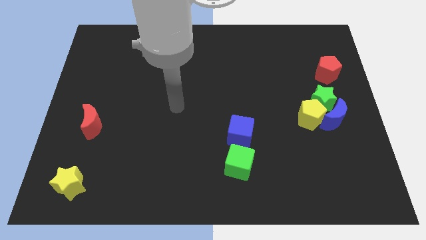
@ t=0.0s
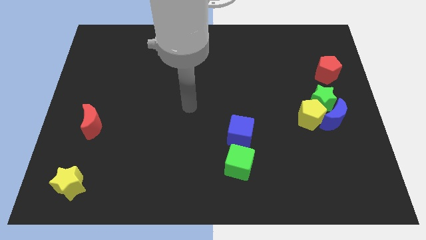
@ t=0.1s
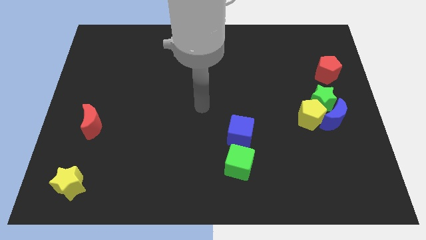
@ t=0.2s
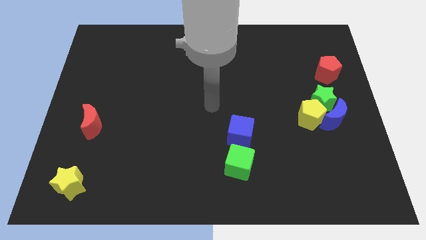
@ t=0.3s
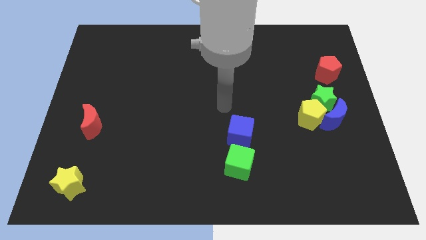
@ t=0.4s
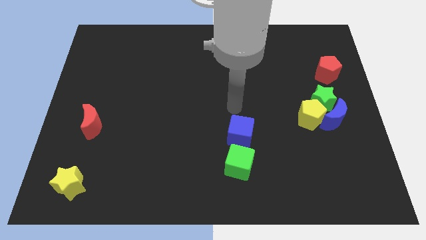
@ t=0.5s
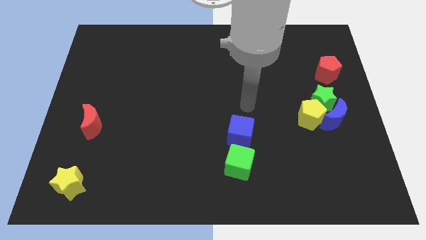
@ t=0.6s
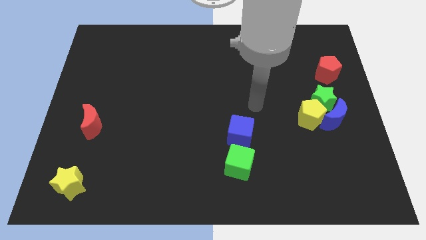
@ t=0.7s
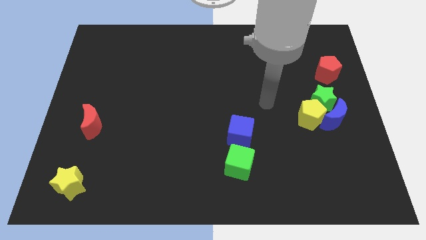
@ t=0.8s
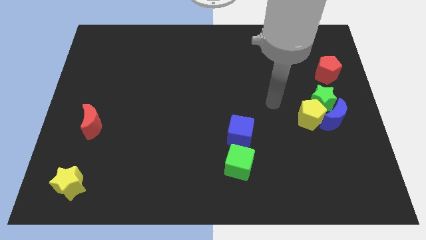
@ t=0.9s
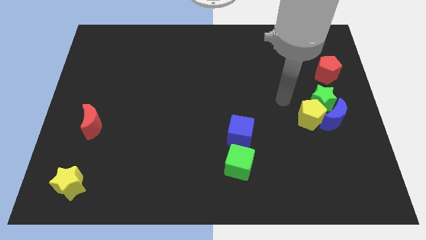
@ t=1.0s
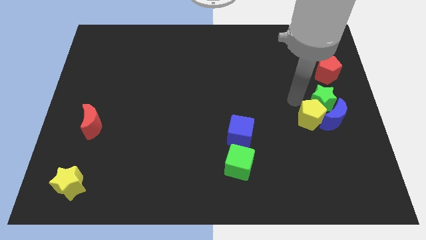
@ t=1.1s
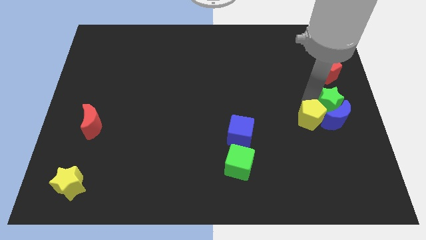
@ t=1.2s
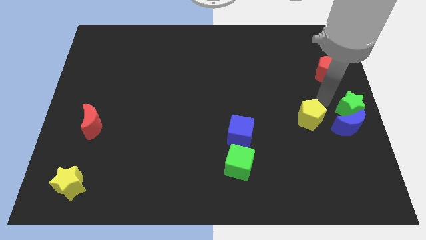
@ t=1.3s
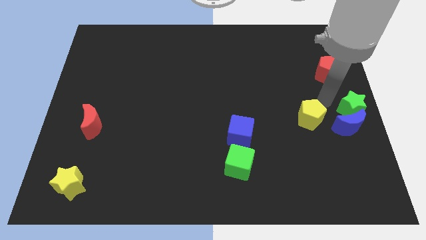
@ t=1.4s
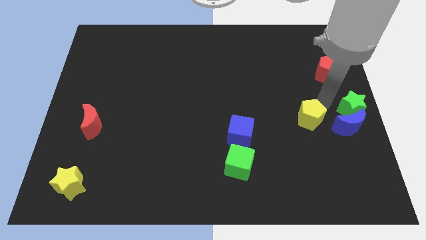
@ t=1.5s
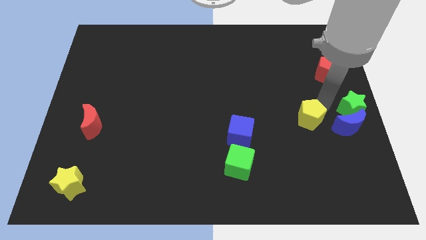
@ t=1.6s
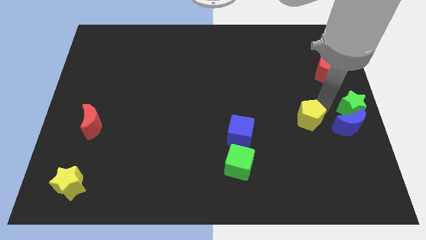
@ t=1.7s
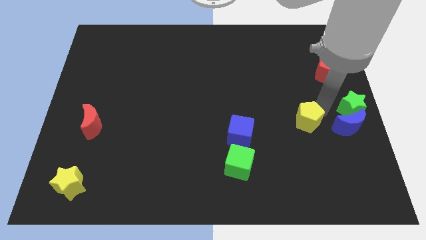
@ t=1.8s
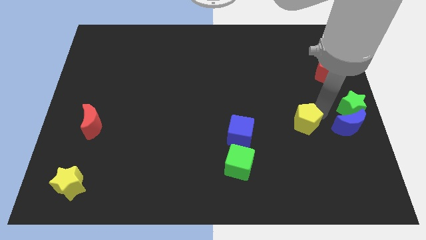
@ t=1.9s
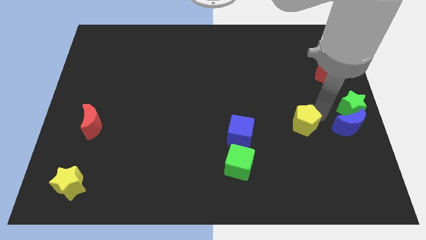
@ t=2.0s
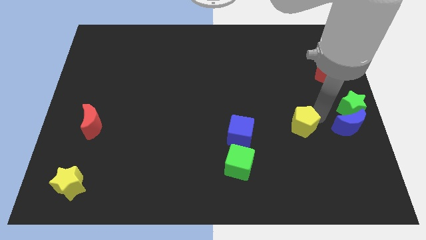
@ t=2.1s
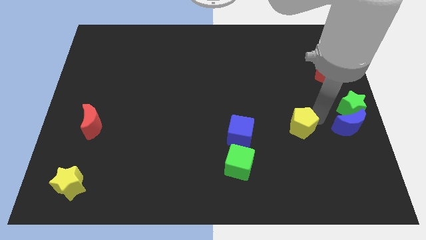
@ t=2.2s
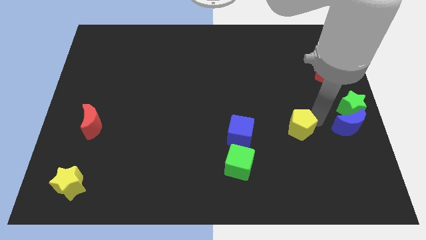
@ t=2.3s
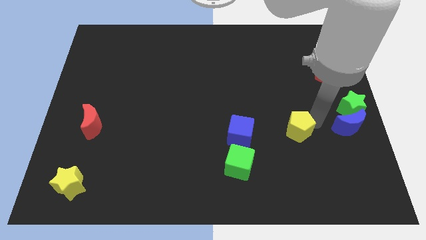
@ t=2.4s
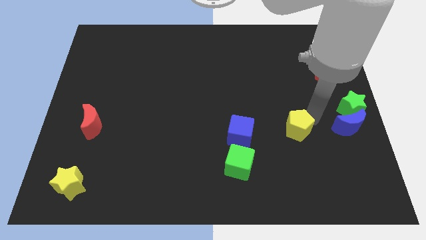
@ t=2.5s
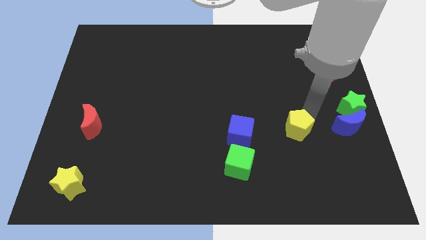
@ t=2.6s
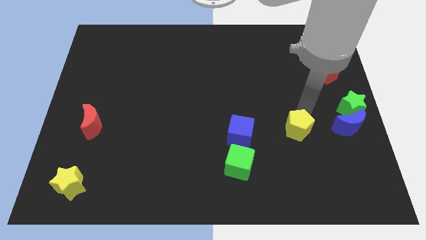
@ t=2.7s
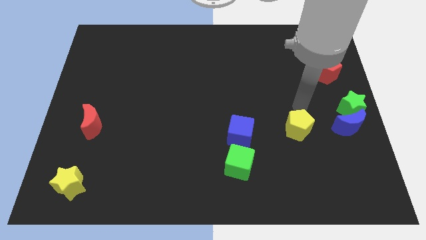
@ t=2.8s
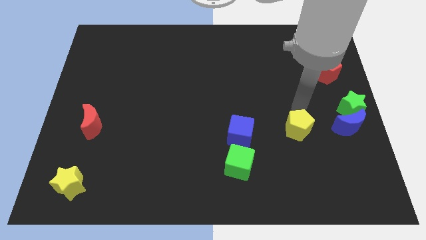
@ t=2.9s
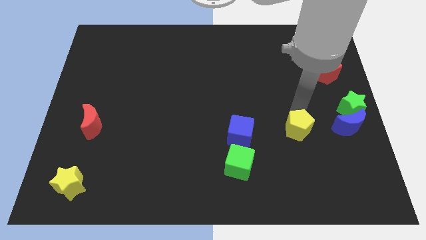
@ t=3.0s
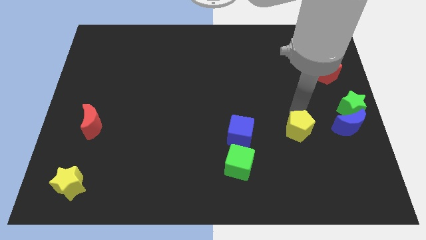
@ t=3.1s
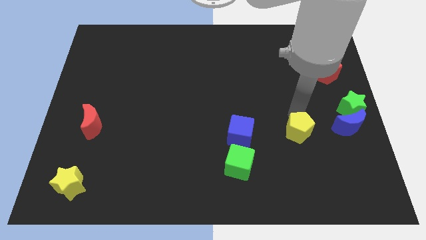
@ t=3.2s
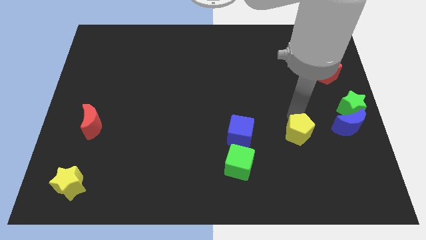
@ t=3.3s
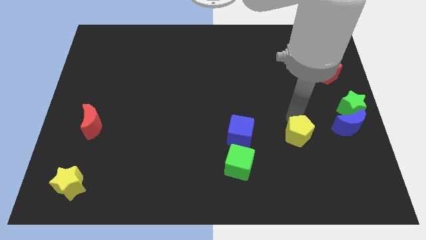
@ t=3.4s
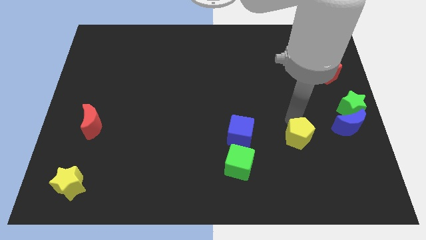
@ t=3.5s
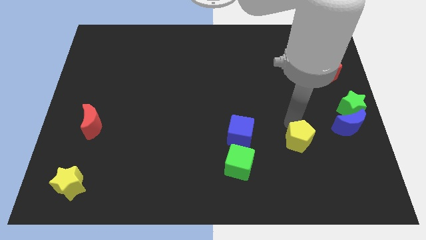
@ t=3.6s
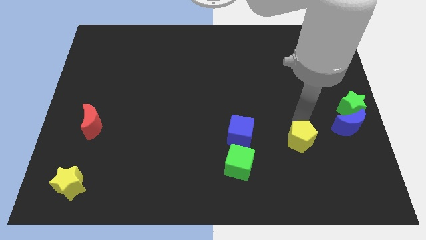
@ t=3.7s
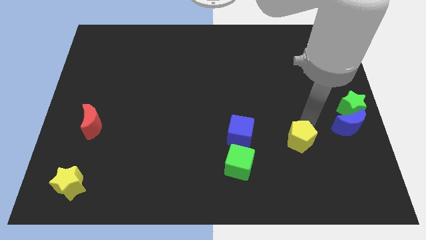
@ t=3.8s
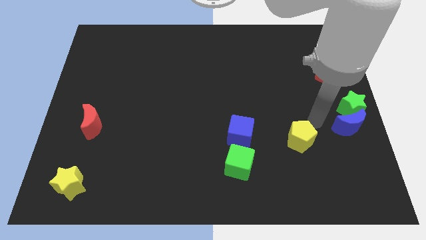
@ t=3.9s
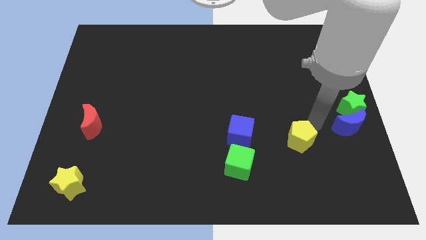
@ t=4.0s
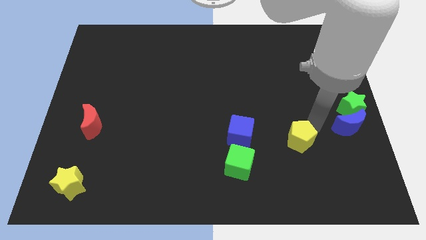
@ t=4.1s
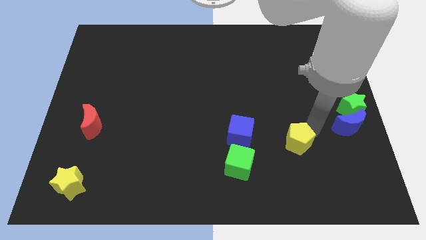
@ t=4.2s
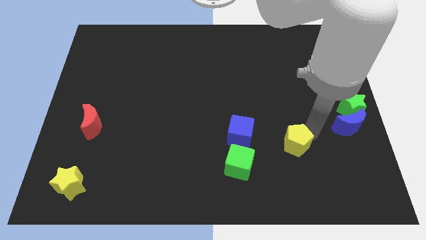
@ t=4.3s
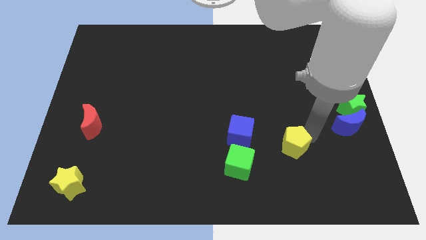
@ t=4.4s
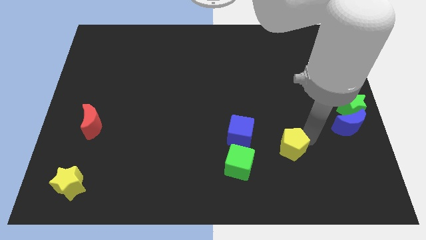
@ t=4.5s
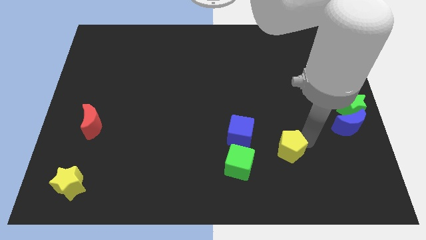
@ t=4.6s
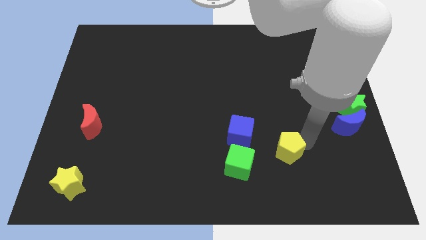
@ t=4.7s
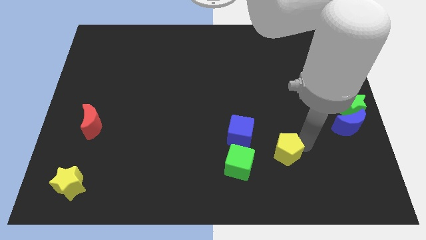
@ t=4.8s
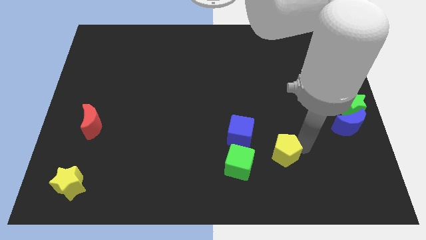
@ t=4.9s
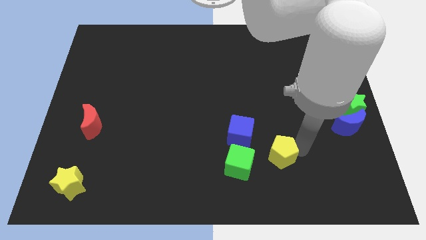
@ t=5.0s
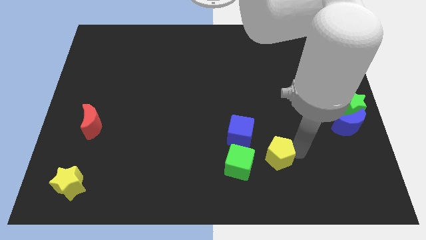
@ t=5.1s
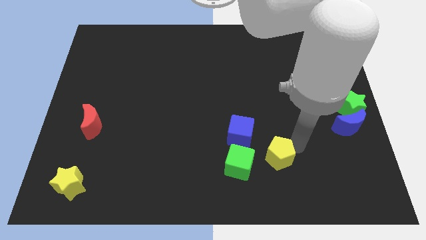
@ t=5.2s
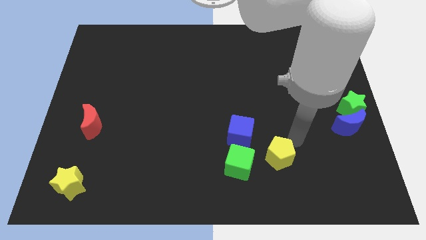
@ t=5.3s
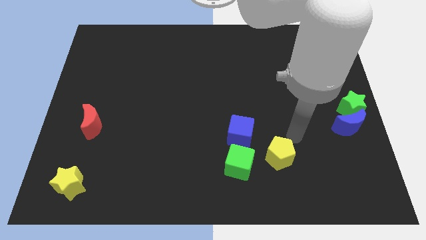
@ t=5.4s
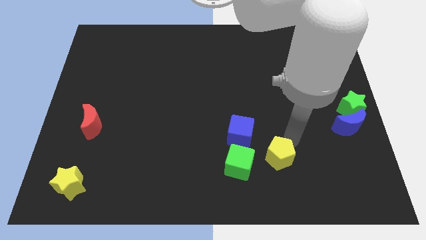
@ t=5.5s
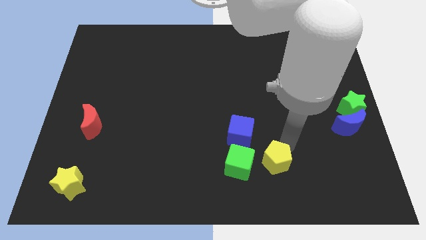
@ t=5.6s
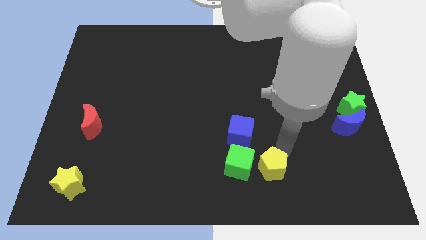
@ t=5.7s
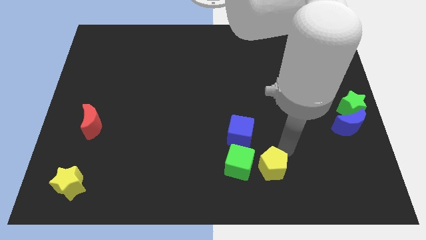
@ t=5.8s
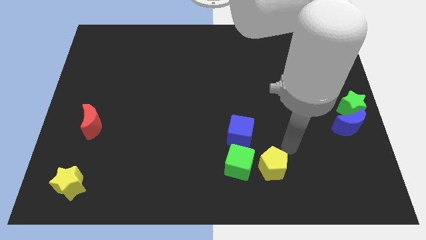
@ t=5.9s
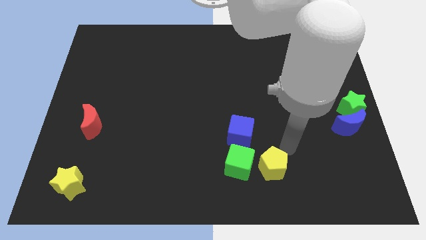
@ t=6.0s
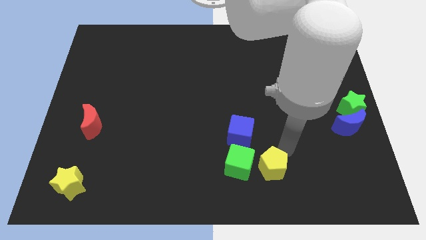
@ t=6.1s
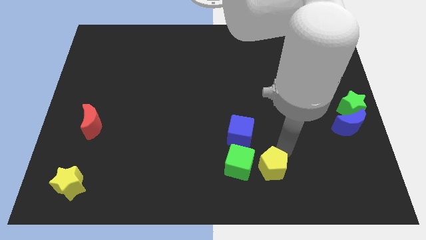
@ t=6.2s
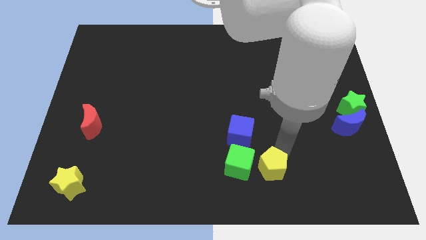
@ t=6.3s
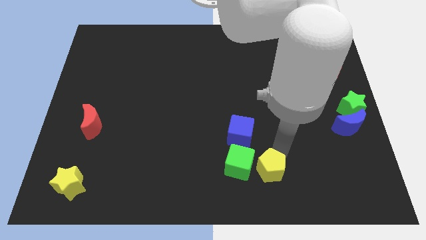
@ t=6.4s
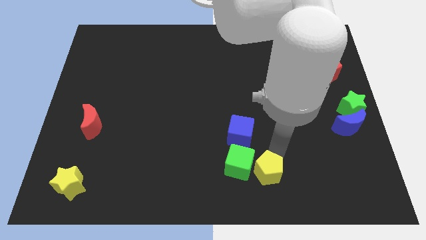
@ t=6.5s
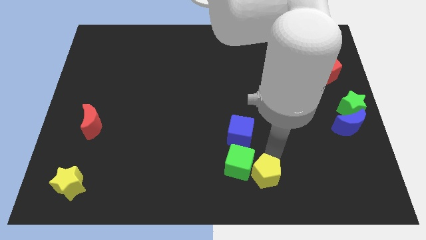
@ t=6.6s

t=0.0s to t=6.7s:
put the yellow pentagon to the bottom
